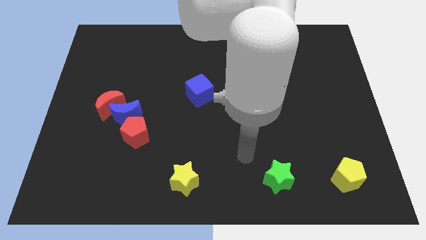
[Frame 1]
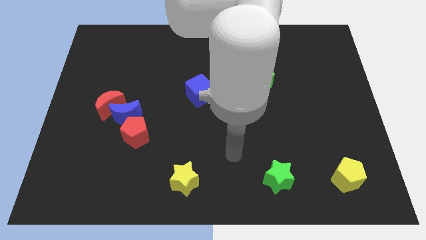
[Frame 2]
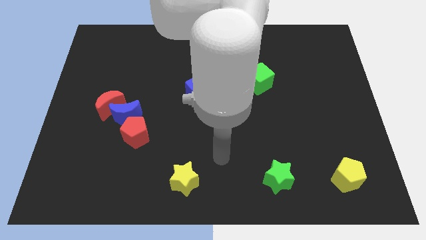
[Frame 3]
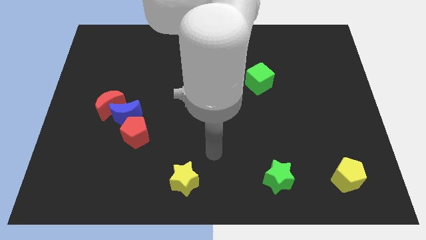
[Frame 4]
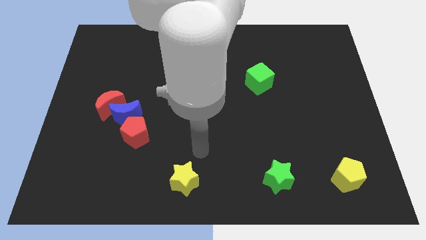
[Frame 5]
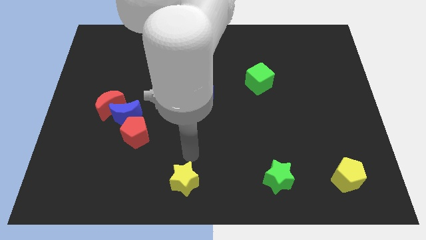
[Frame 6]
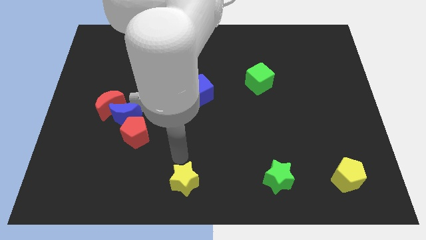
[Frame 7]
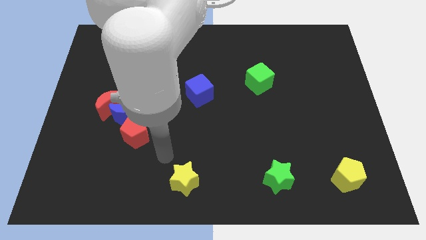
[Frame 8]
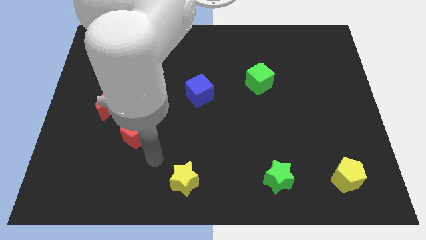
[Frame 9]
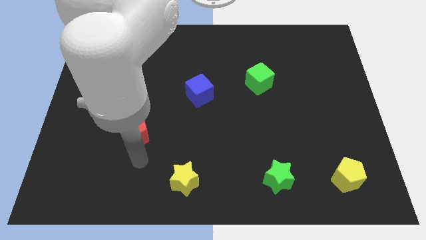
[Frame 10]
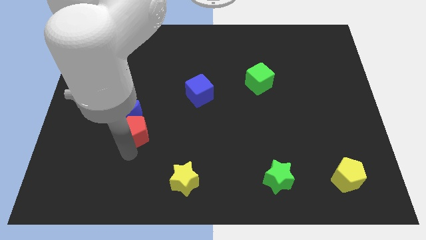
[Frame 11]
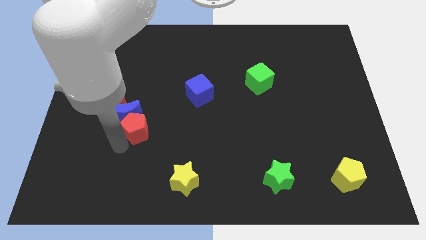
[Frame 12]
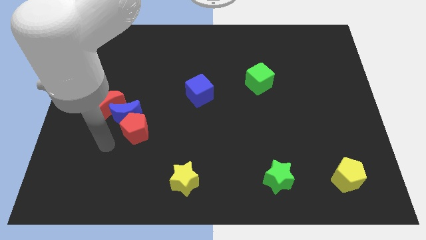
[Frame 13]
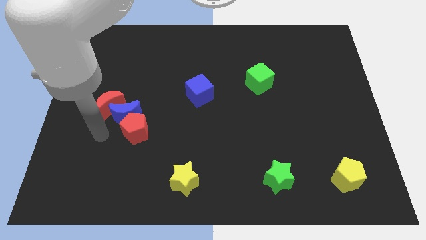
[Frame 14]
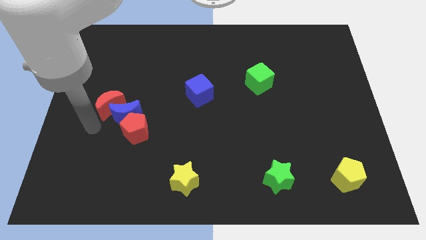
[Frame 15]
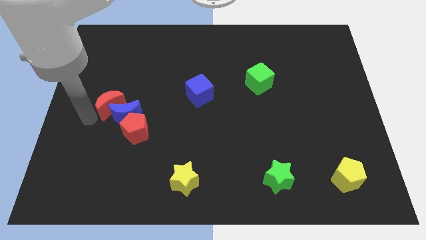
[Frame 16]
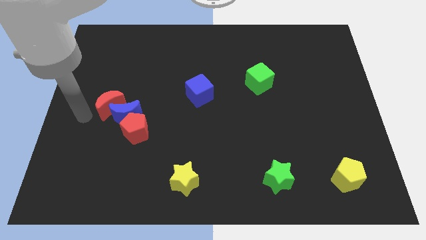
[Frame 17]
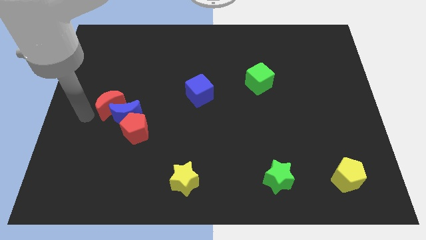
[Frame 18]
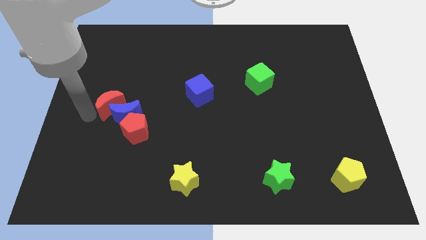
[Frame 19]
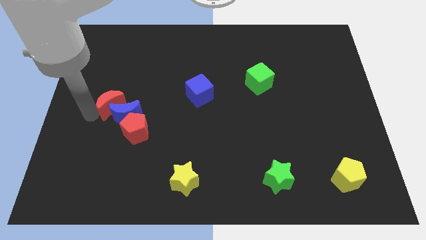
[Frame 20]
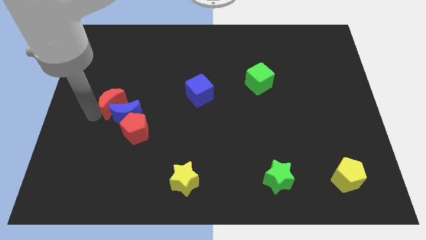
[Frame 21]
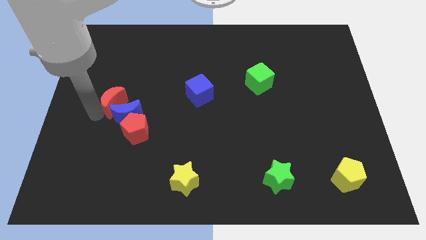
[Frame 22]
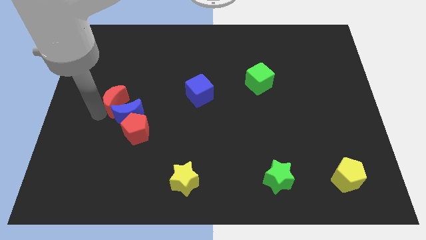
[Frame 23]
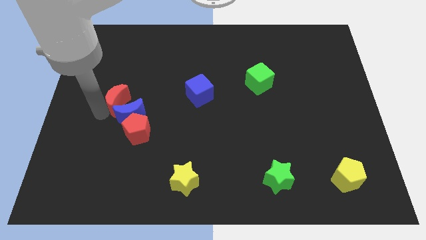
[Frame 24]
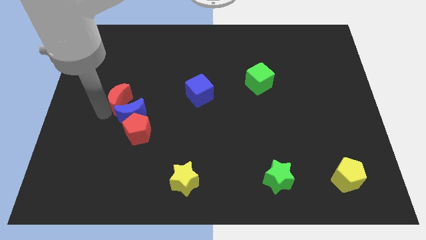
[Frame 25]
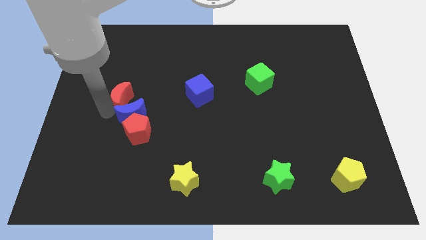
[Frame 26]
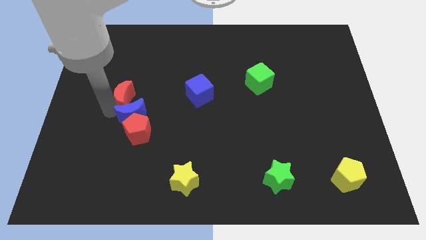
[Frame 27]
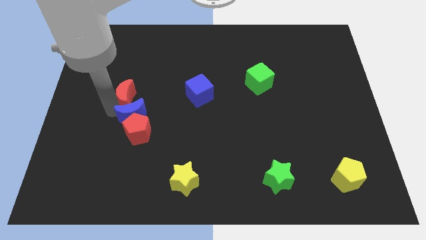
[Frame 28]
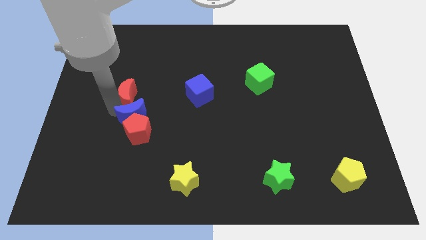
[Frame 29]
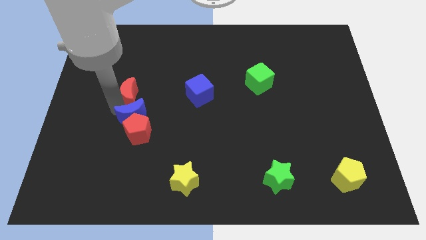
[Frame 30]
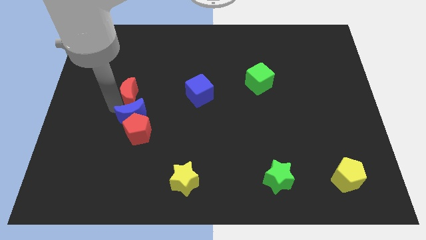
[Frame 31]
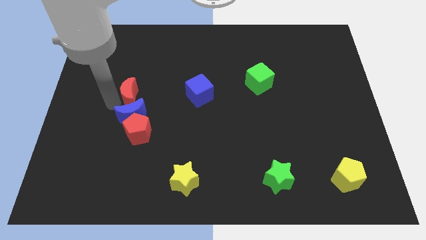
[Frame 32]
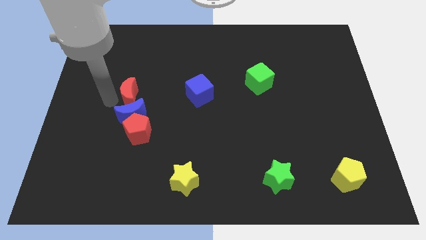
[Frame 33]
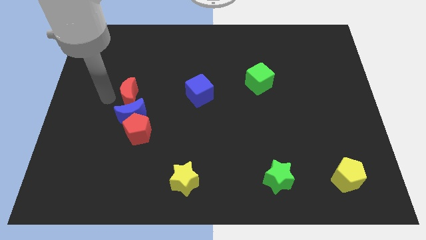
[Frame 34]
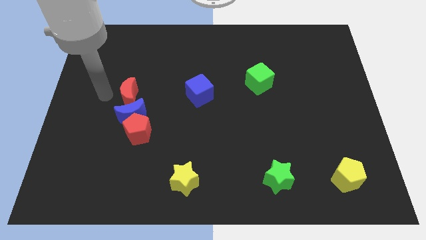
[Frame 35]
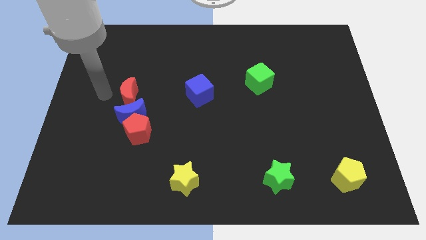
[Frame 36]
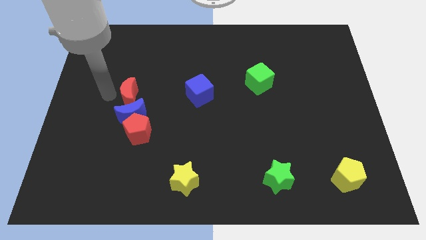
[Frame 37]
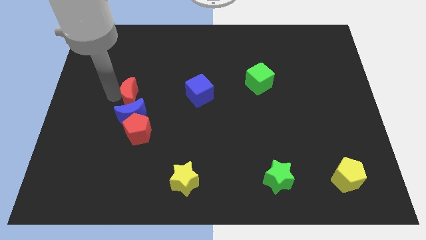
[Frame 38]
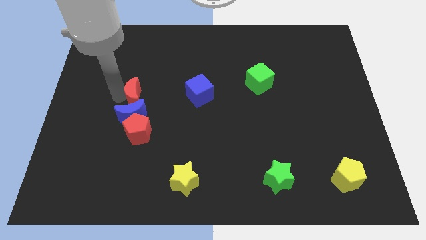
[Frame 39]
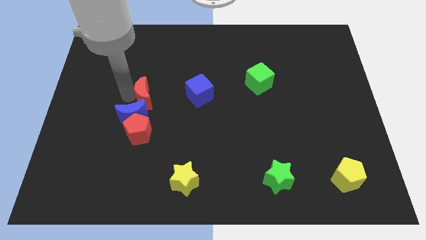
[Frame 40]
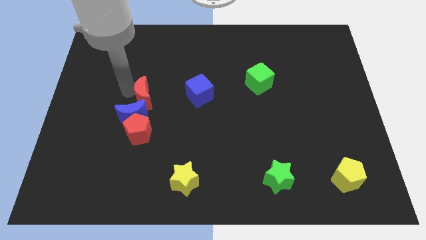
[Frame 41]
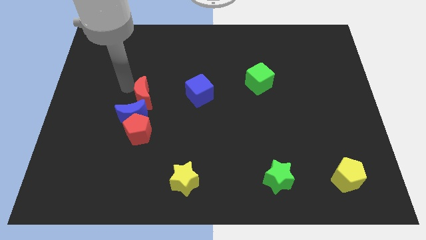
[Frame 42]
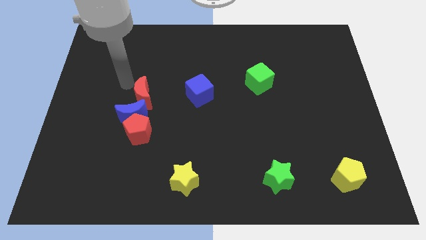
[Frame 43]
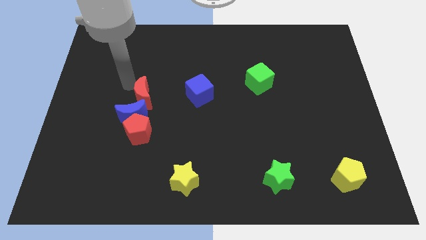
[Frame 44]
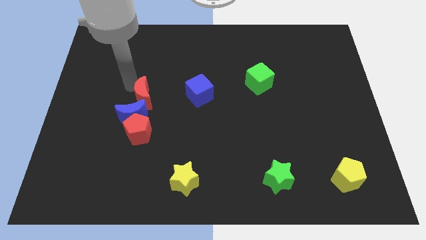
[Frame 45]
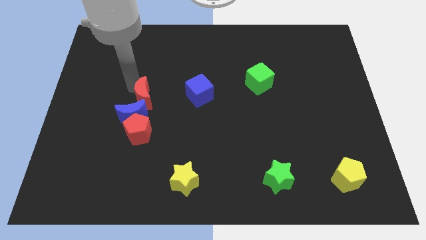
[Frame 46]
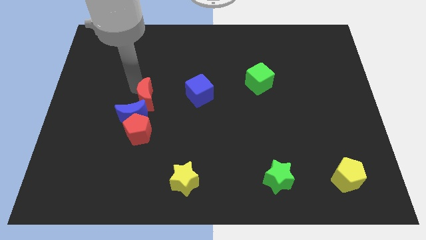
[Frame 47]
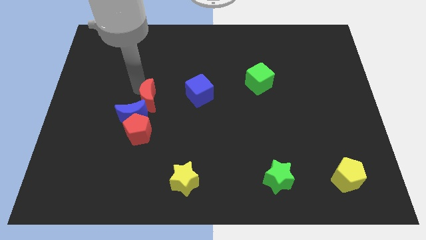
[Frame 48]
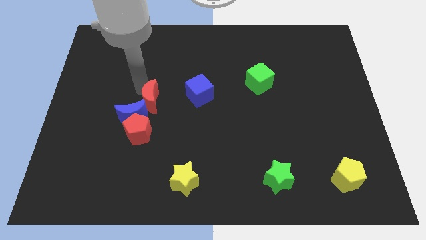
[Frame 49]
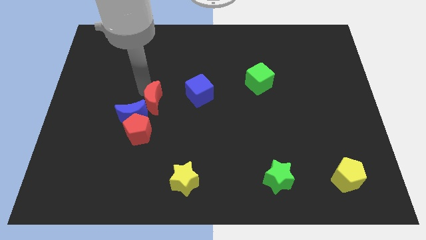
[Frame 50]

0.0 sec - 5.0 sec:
move the red moon to the top right of the red pentagon

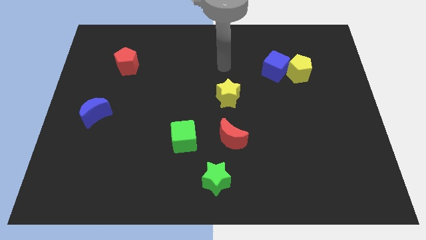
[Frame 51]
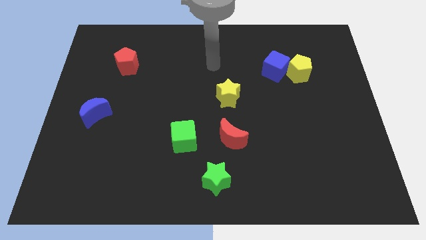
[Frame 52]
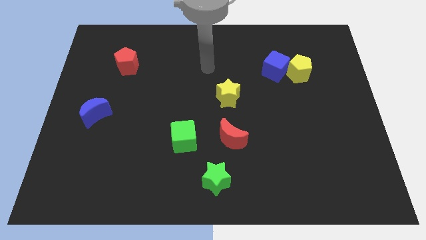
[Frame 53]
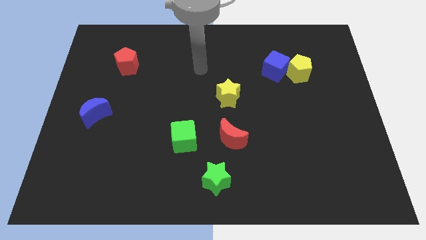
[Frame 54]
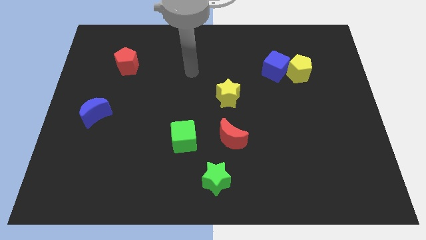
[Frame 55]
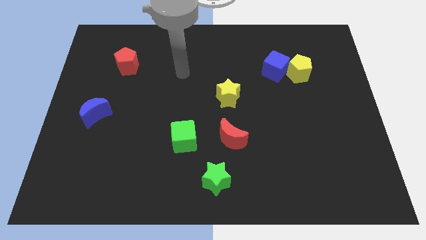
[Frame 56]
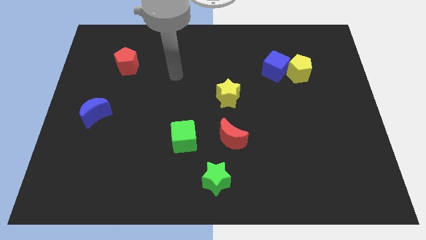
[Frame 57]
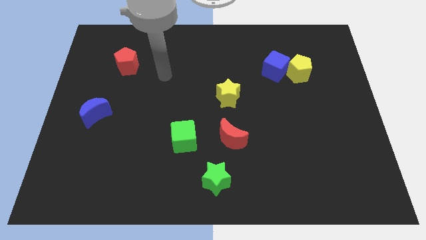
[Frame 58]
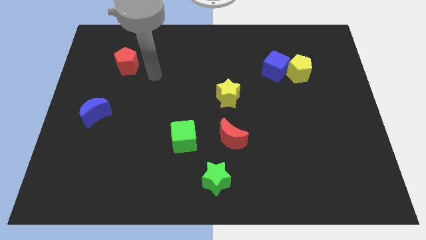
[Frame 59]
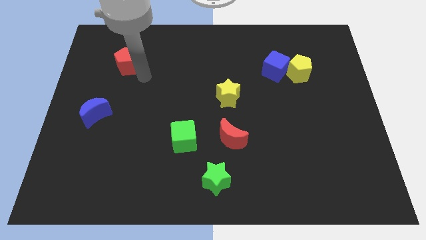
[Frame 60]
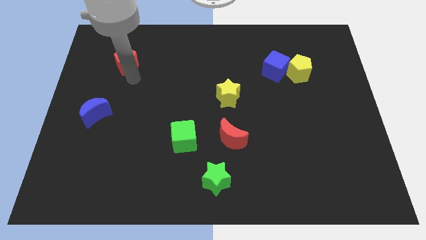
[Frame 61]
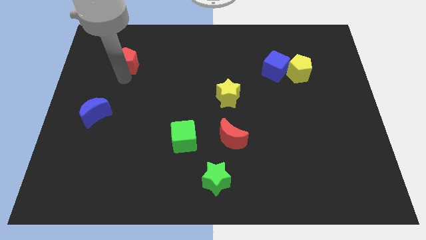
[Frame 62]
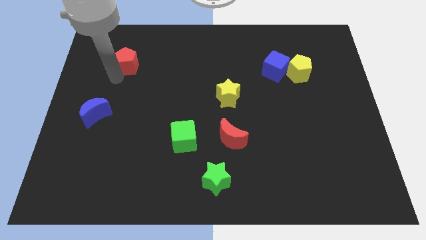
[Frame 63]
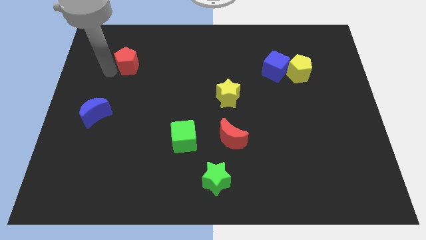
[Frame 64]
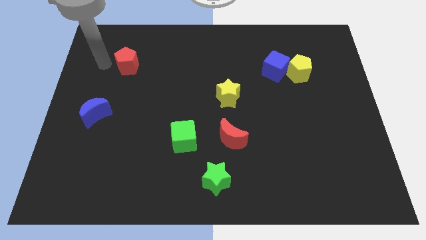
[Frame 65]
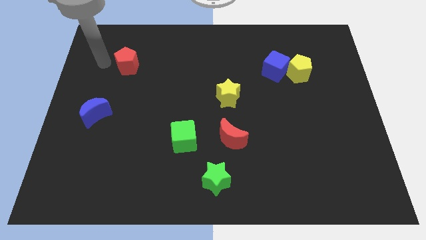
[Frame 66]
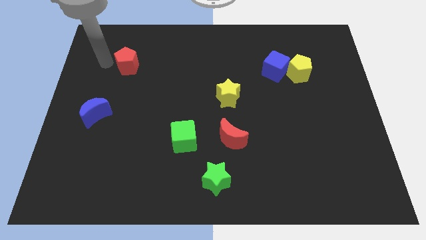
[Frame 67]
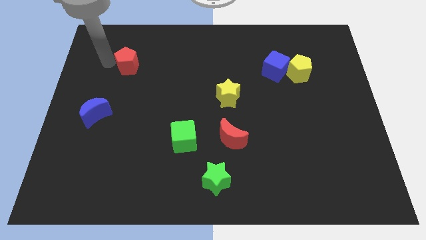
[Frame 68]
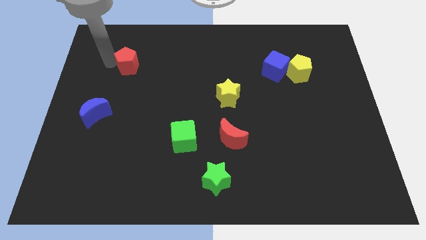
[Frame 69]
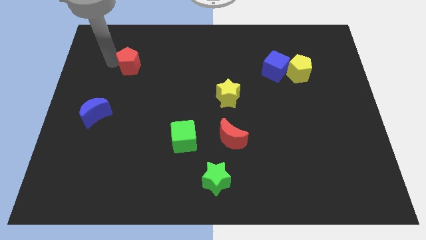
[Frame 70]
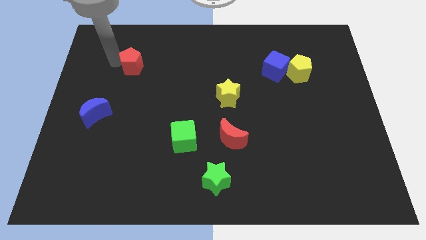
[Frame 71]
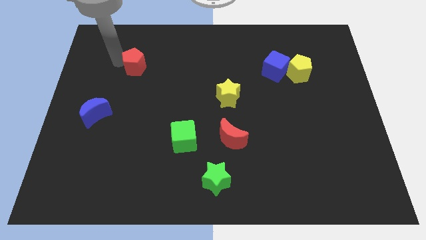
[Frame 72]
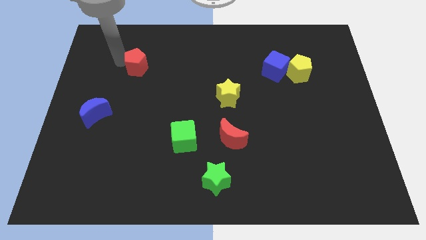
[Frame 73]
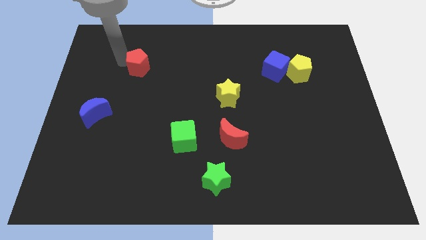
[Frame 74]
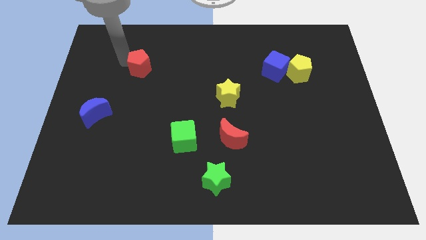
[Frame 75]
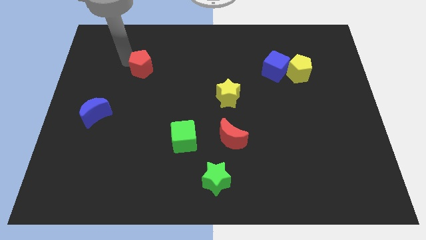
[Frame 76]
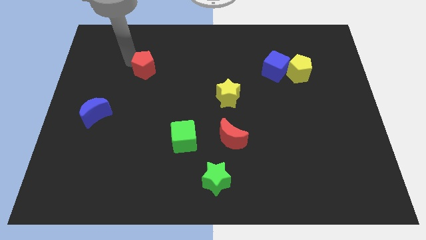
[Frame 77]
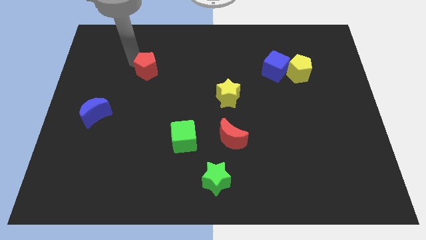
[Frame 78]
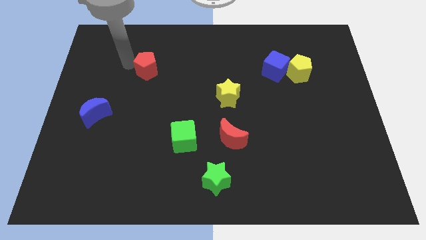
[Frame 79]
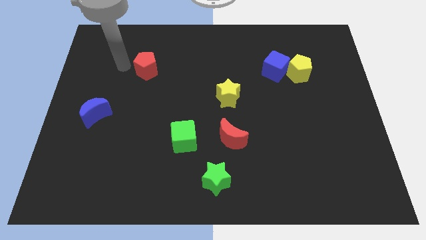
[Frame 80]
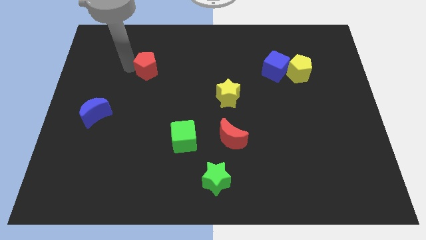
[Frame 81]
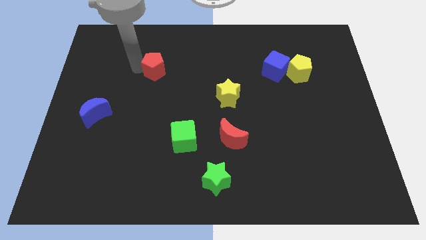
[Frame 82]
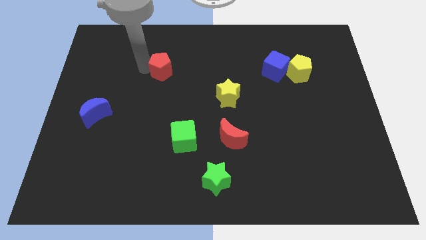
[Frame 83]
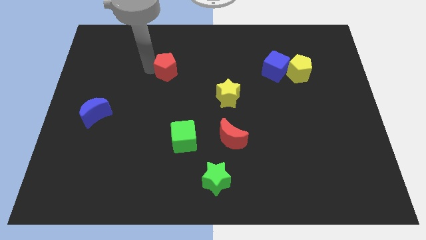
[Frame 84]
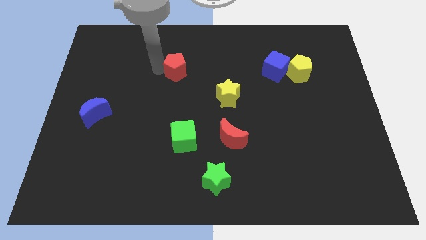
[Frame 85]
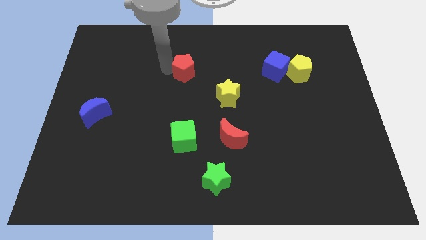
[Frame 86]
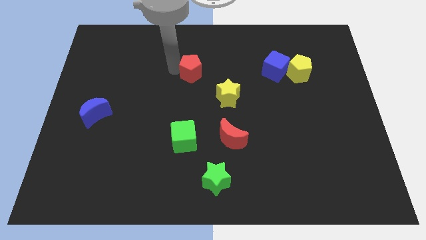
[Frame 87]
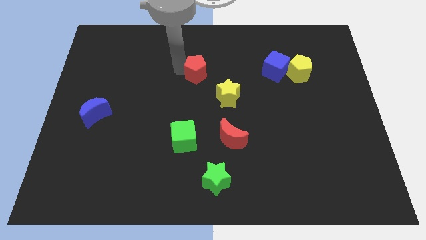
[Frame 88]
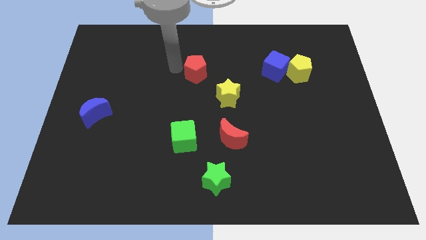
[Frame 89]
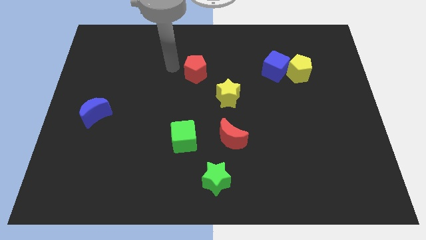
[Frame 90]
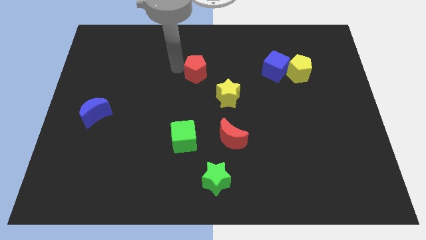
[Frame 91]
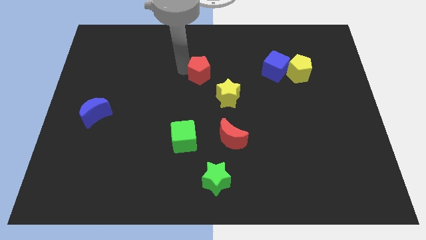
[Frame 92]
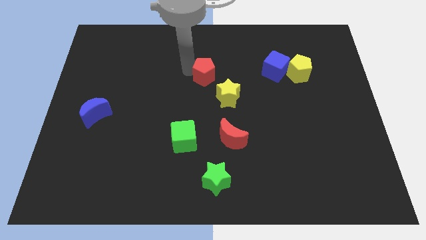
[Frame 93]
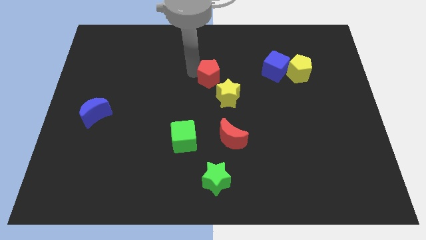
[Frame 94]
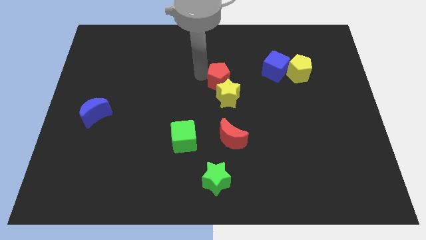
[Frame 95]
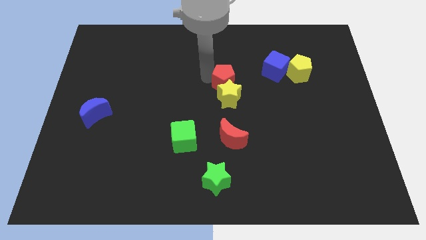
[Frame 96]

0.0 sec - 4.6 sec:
put the red pentagon diagonally up and to the right of the yellow star
